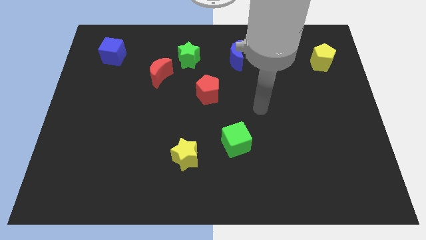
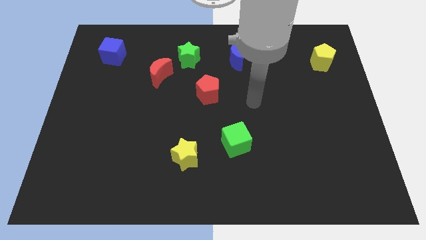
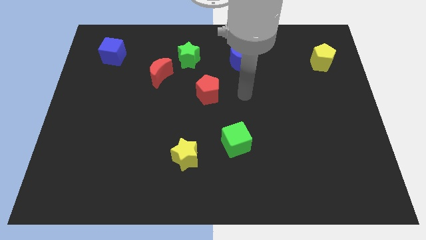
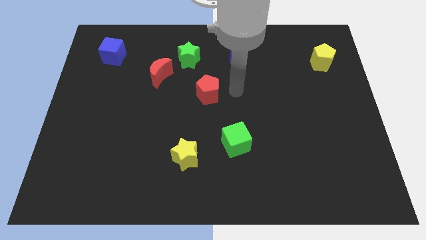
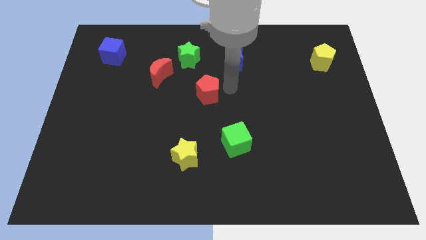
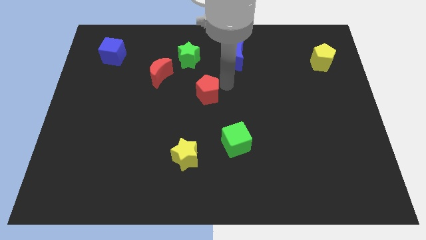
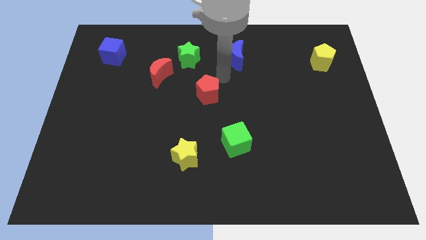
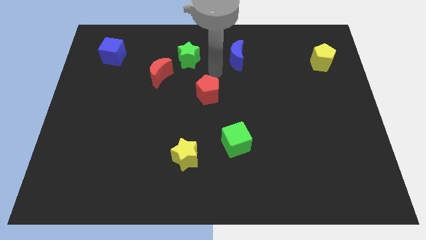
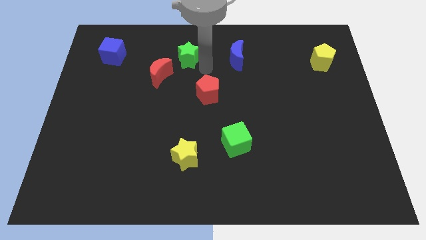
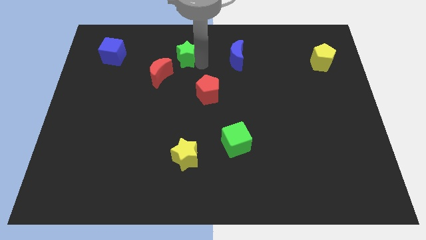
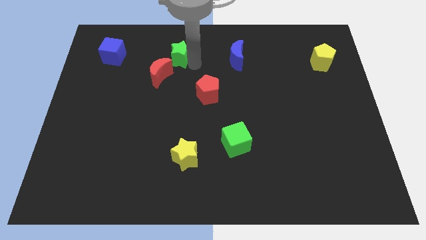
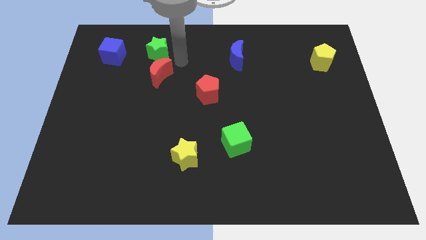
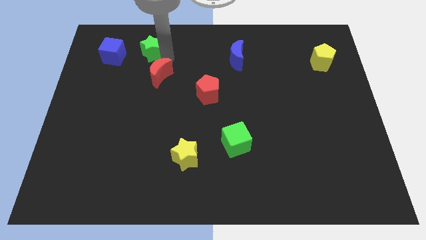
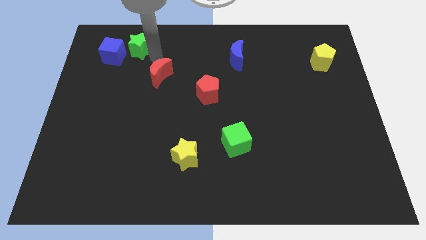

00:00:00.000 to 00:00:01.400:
move the red moon away from the green star

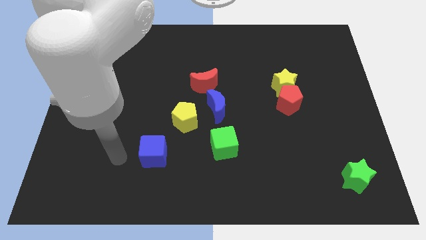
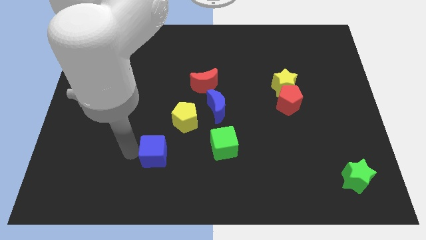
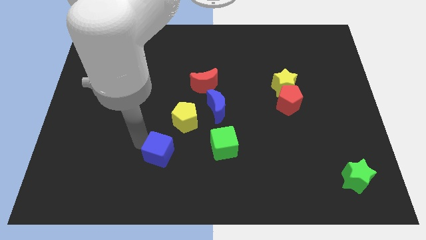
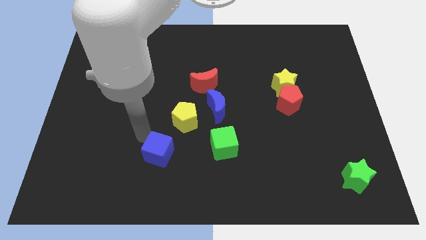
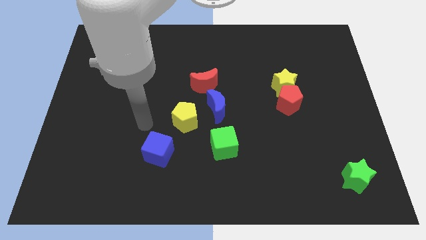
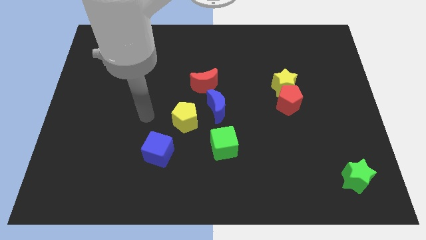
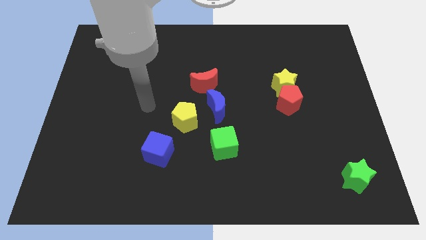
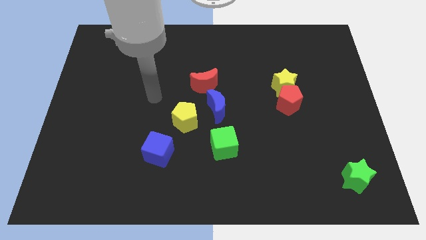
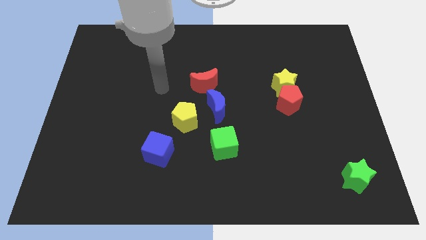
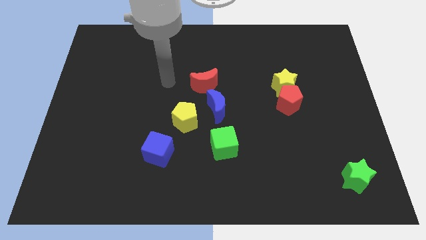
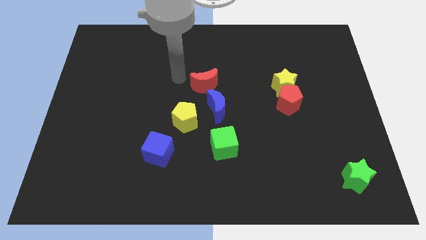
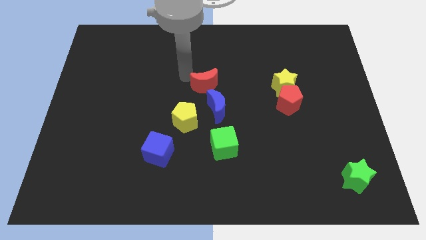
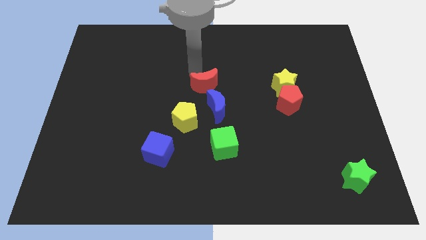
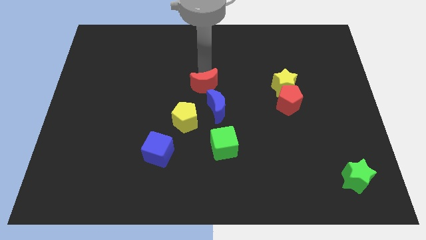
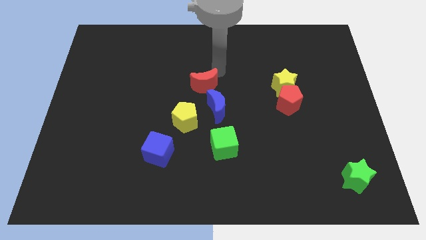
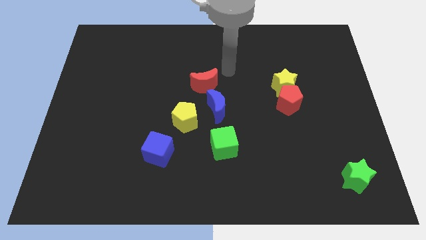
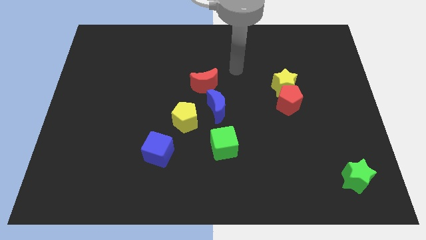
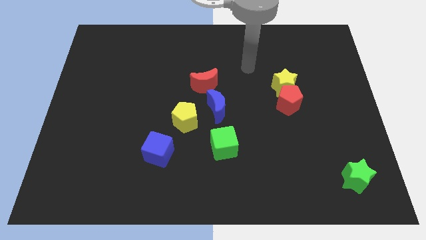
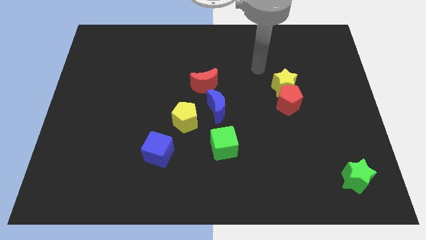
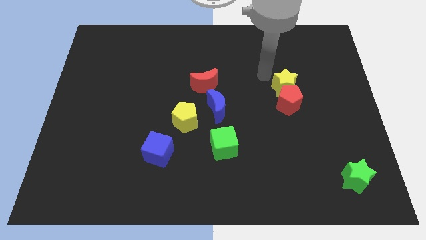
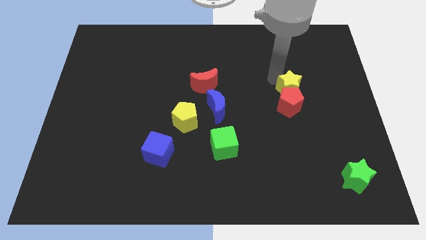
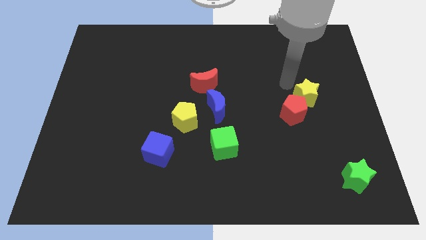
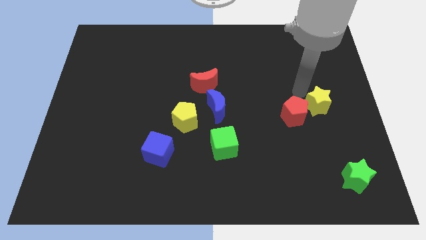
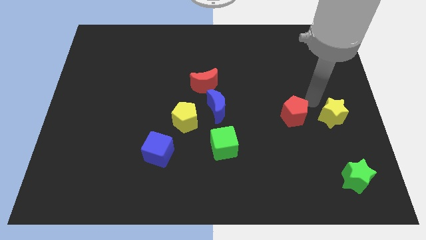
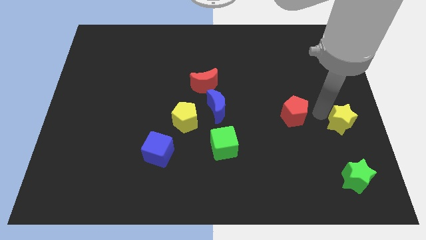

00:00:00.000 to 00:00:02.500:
move the red pentagon away from the yellow star

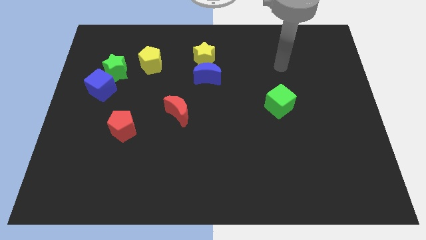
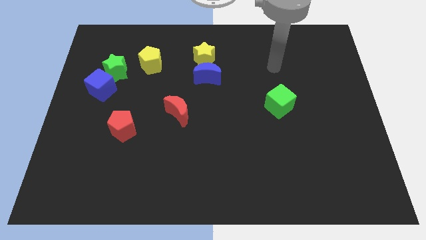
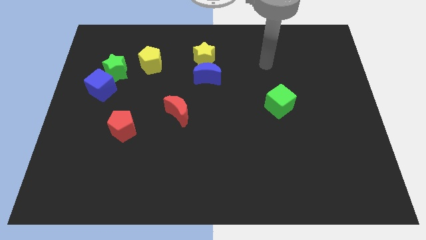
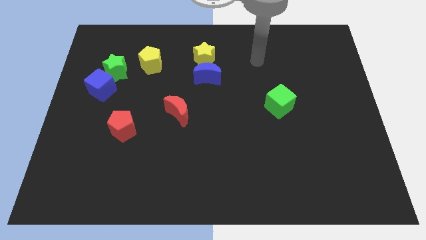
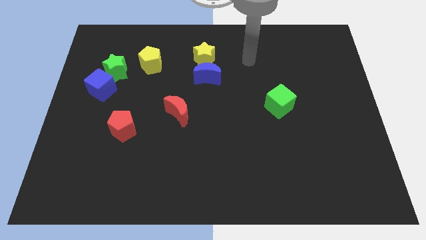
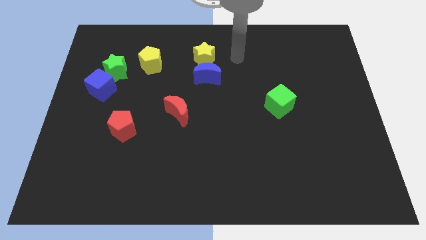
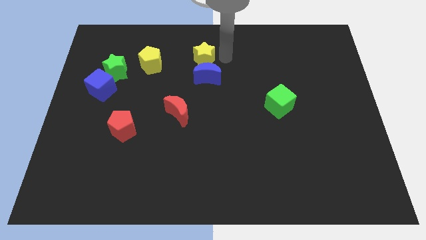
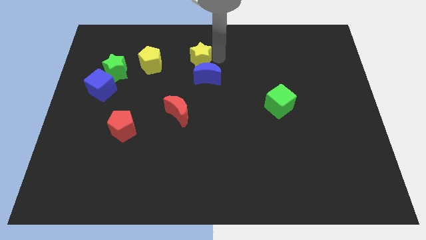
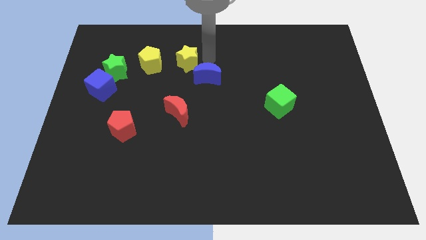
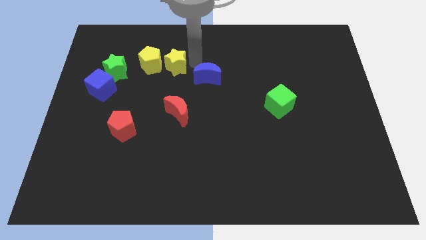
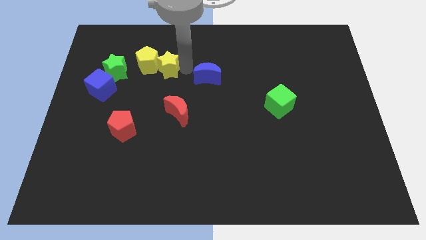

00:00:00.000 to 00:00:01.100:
separate the blue moon from the yellow star

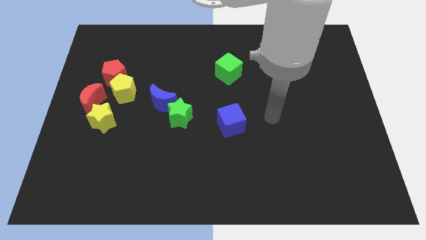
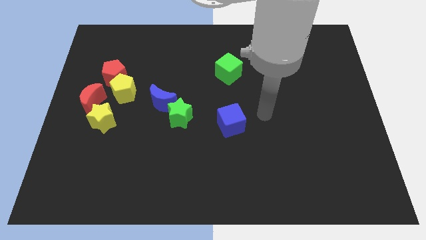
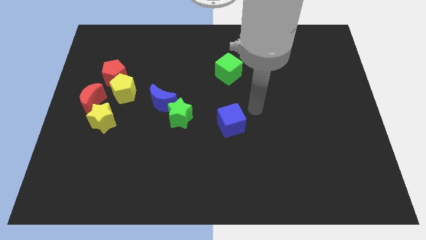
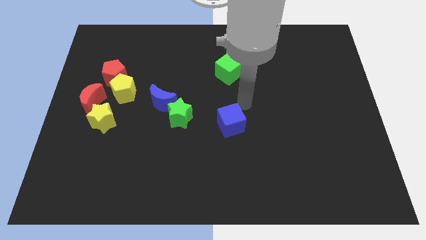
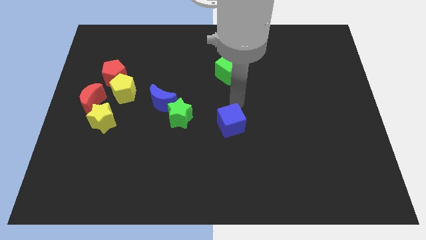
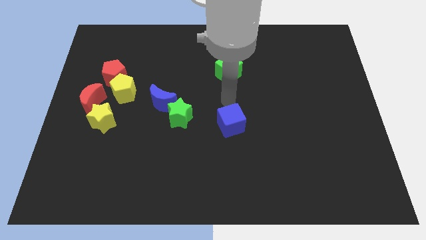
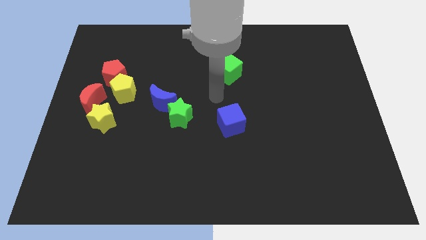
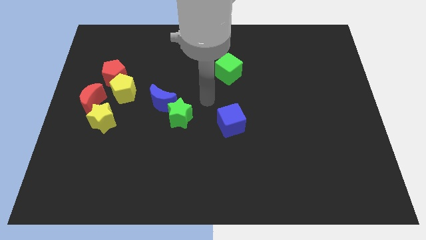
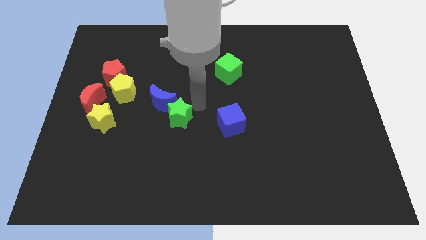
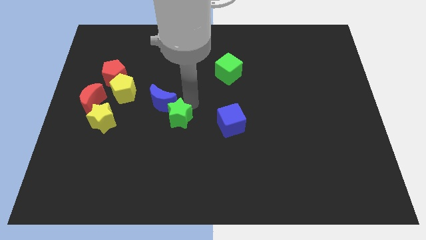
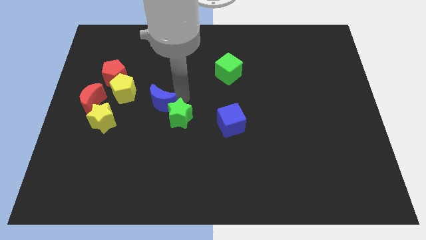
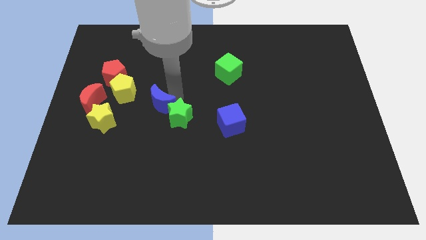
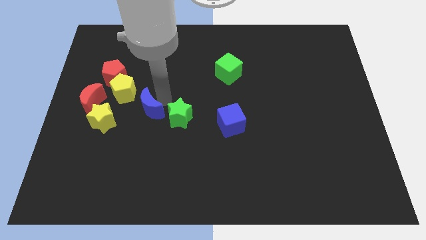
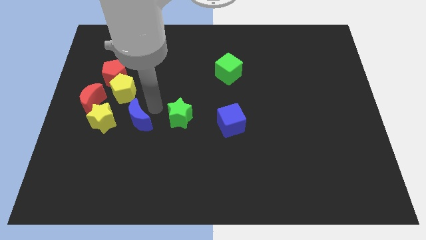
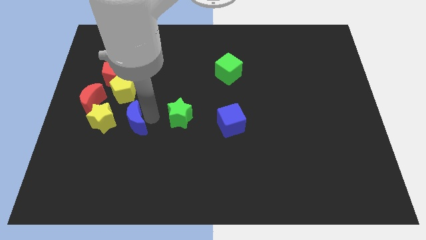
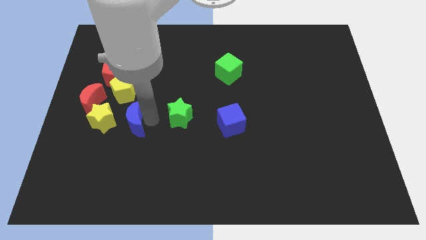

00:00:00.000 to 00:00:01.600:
pull the green star apart from the blue moon

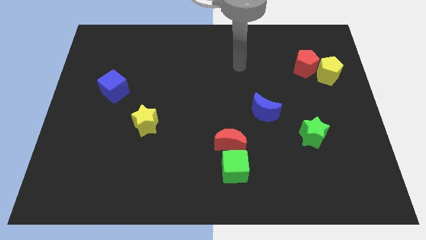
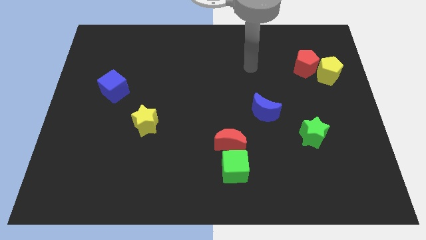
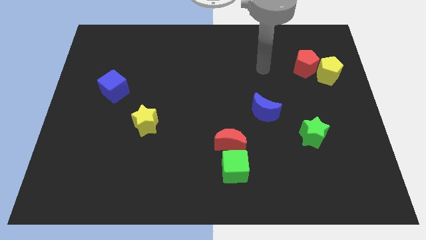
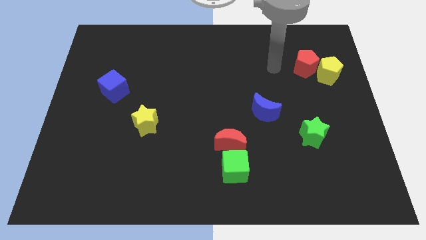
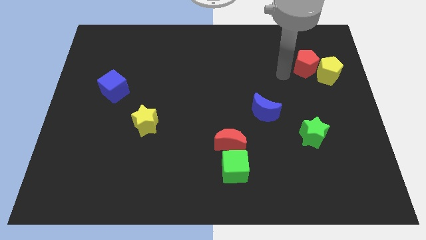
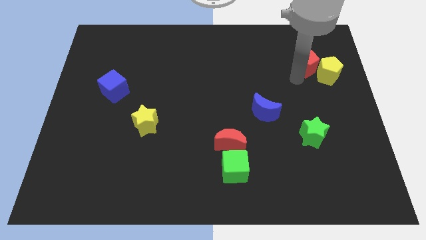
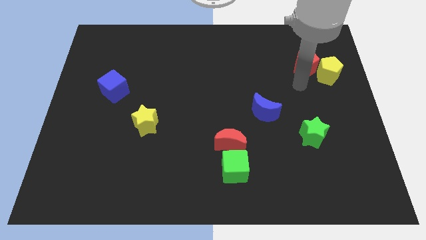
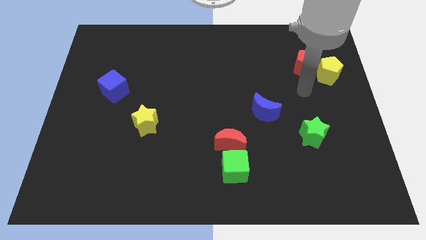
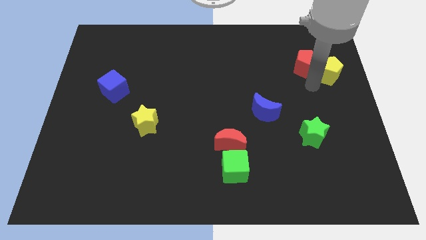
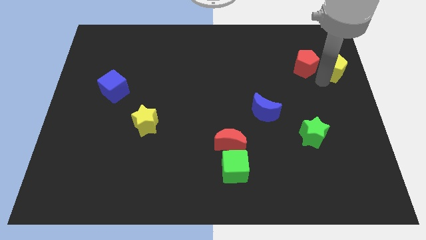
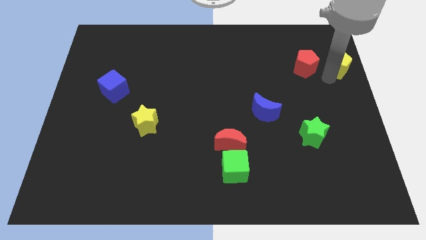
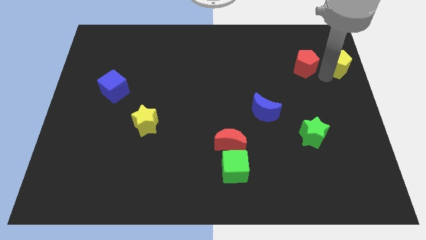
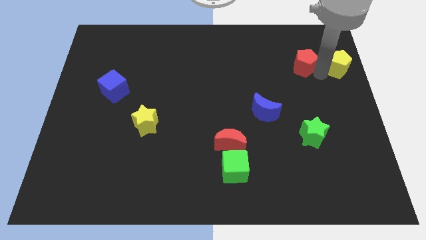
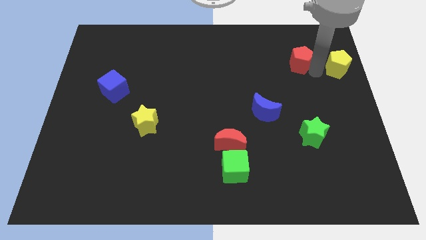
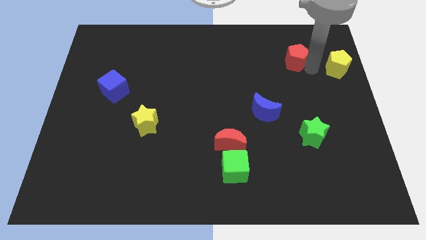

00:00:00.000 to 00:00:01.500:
move the red pentagon away from the yellow pentagon

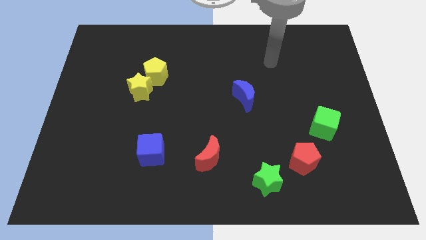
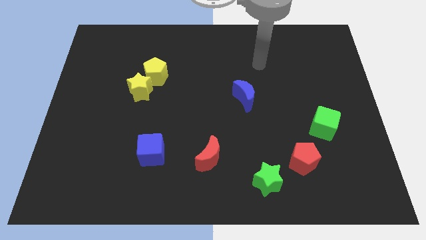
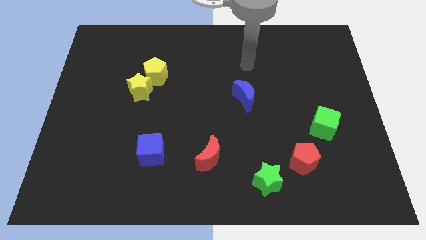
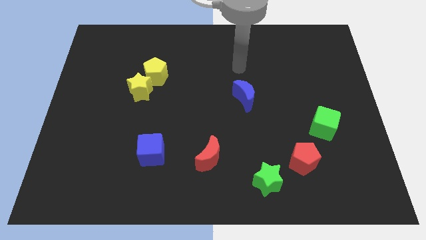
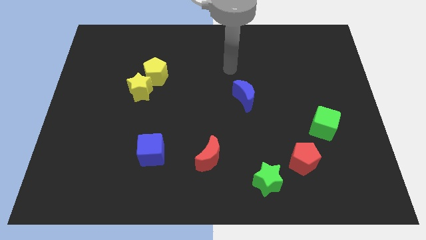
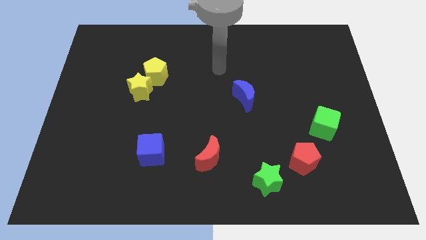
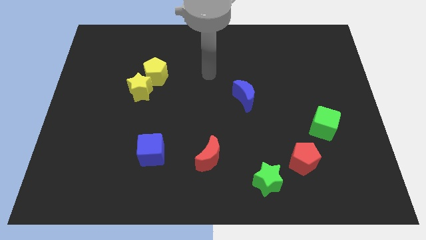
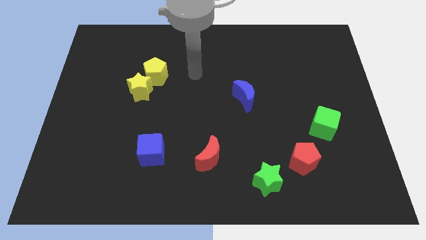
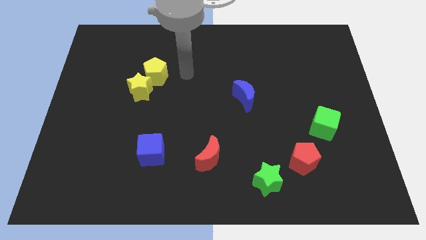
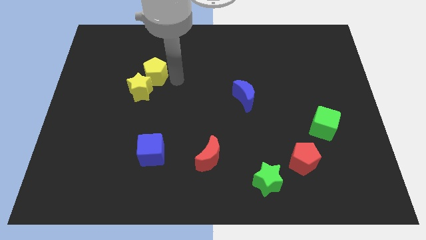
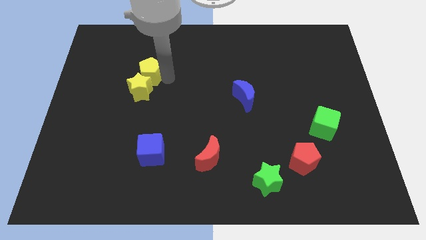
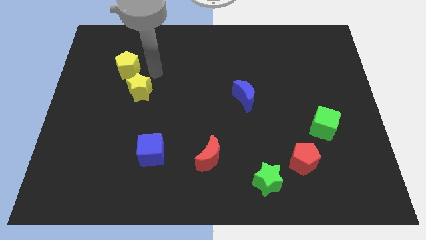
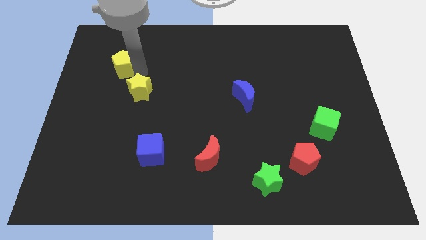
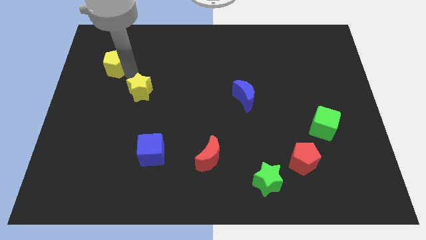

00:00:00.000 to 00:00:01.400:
separate the yellow star from the yellow pentagon
